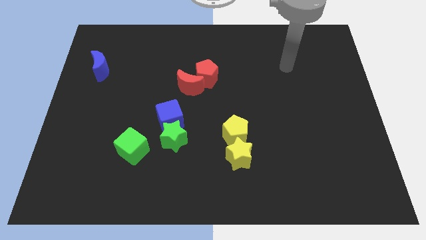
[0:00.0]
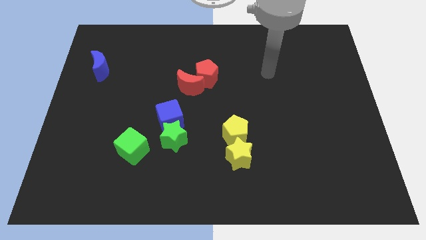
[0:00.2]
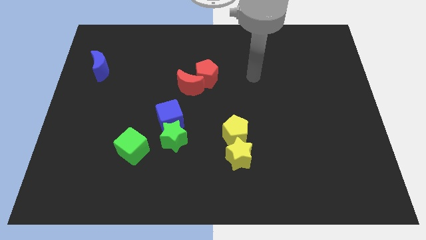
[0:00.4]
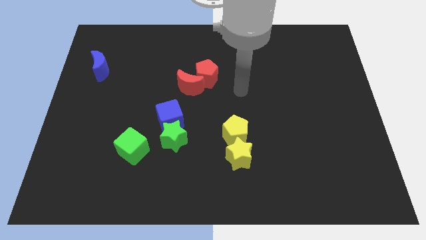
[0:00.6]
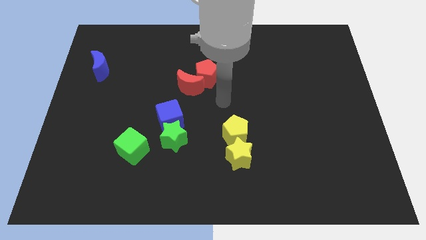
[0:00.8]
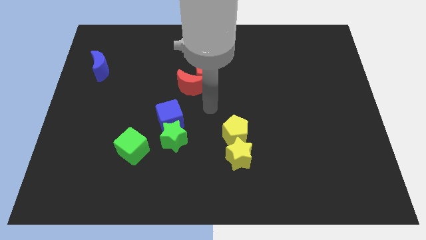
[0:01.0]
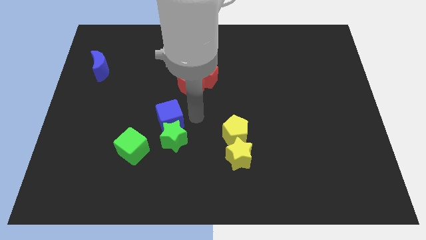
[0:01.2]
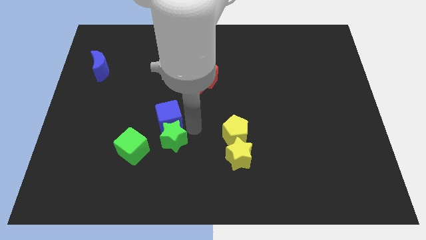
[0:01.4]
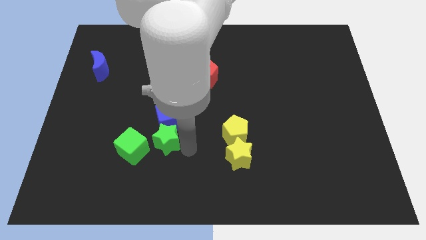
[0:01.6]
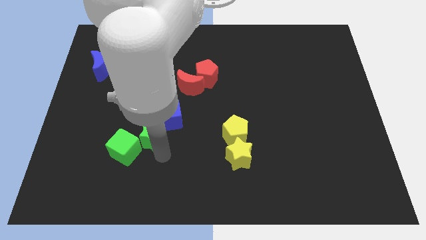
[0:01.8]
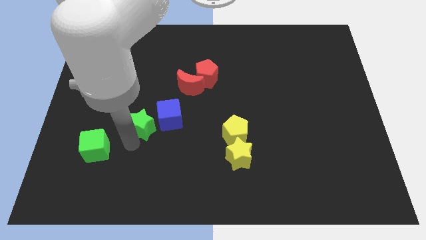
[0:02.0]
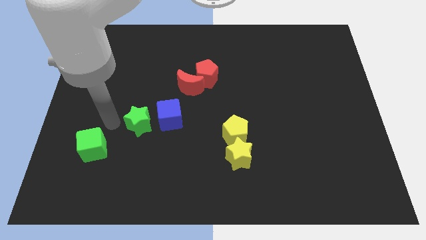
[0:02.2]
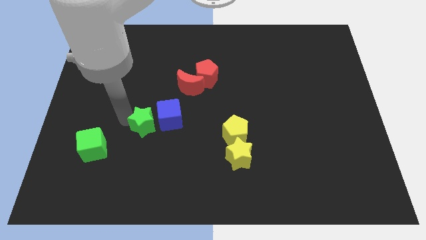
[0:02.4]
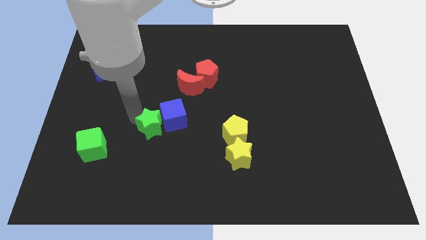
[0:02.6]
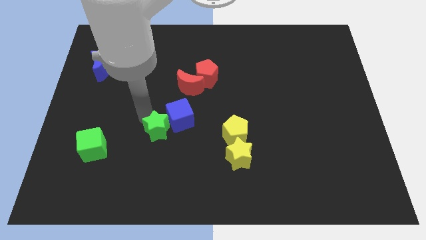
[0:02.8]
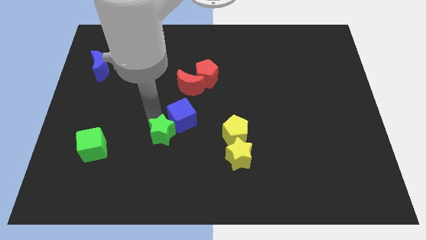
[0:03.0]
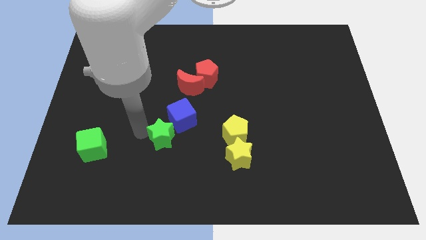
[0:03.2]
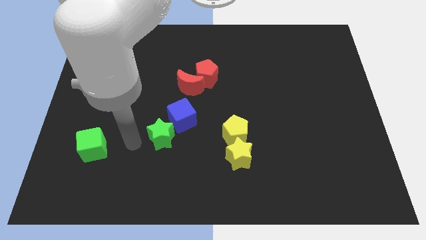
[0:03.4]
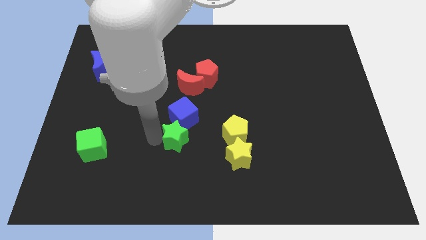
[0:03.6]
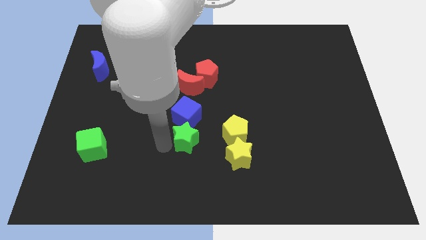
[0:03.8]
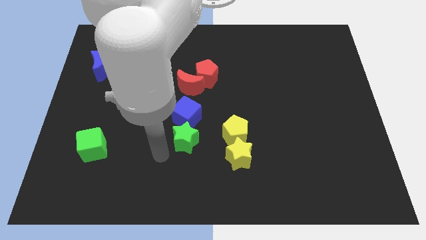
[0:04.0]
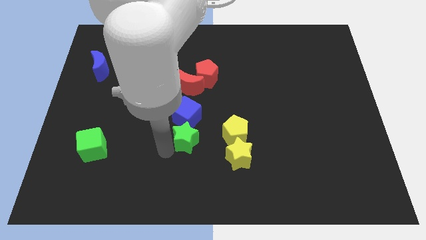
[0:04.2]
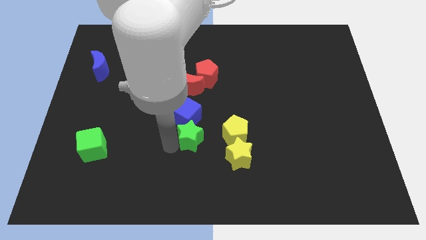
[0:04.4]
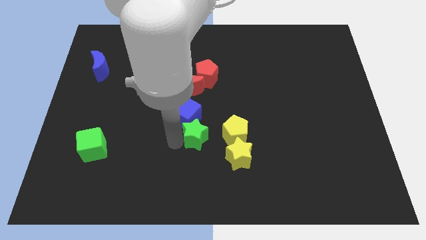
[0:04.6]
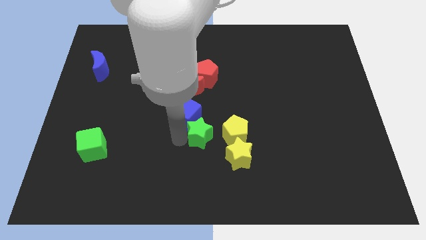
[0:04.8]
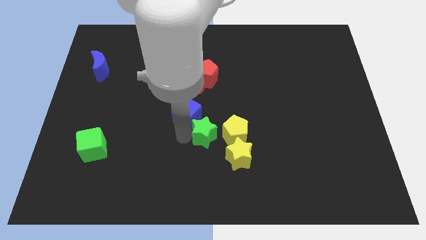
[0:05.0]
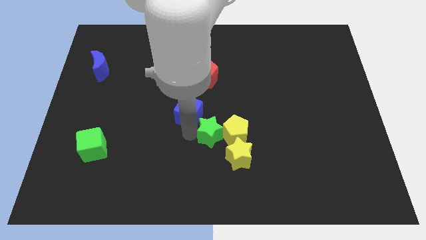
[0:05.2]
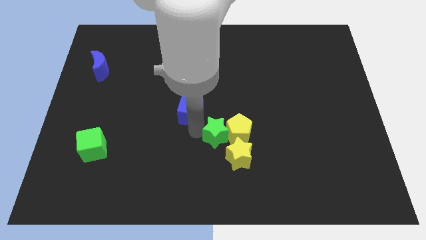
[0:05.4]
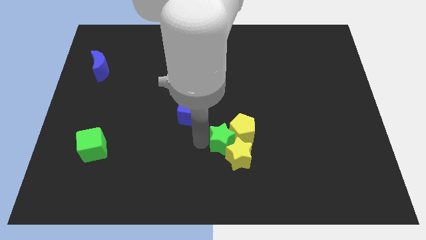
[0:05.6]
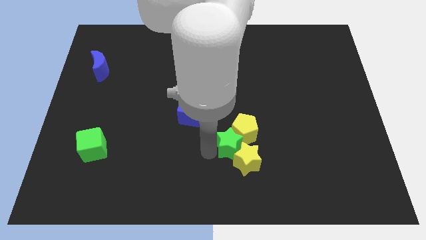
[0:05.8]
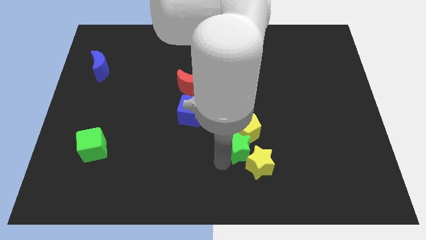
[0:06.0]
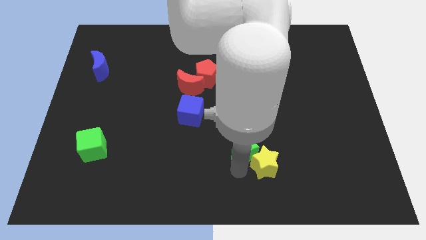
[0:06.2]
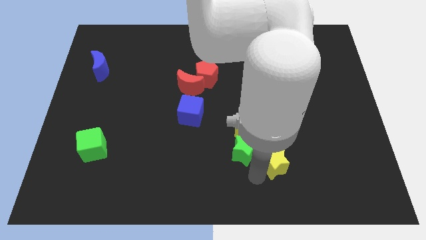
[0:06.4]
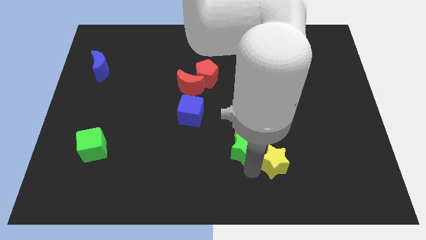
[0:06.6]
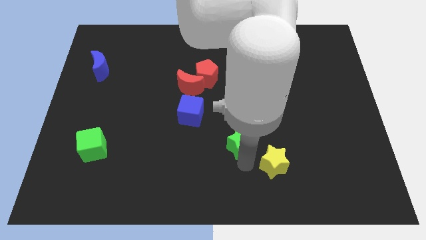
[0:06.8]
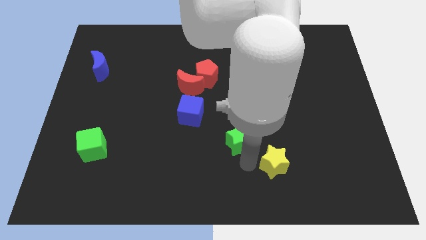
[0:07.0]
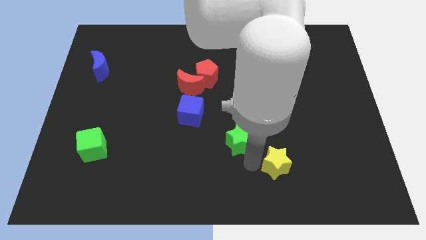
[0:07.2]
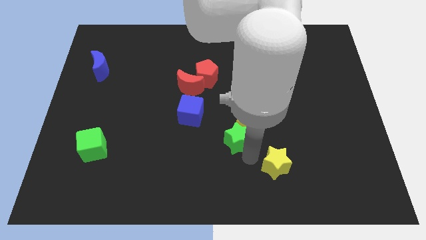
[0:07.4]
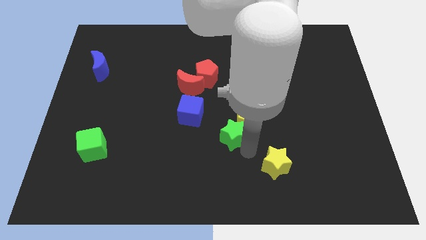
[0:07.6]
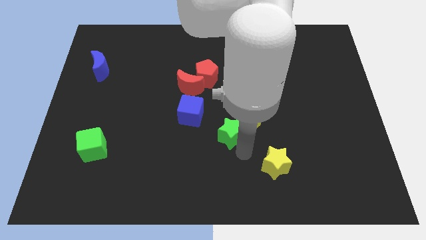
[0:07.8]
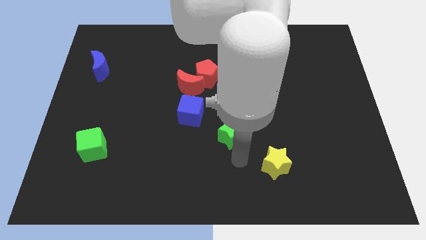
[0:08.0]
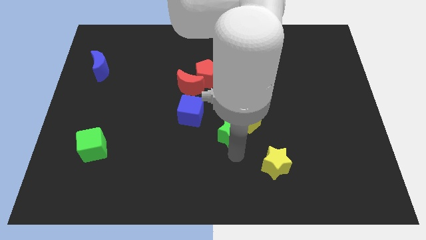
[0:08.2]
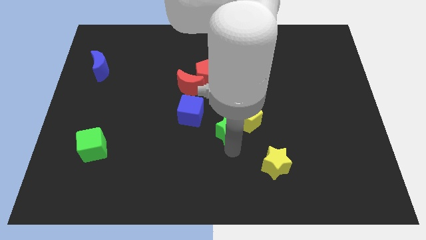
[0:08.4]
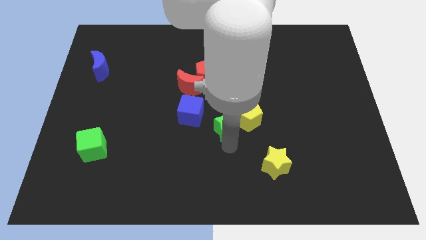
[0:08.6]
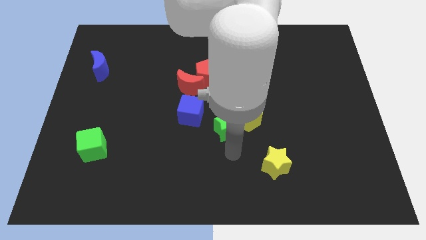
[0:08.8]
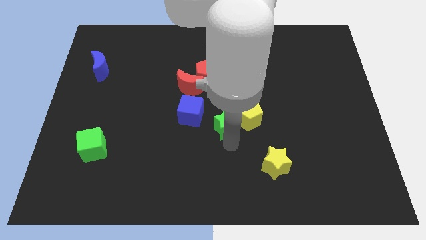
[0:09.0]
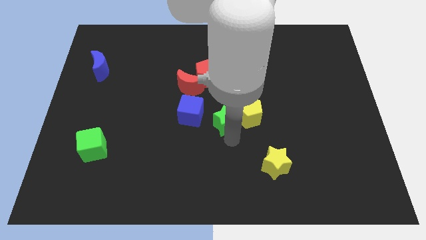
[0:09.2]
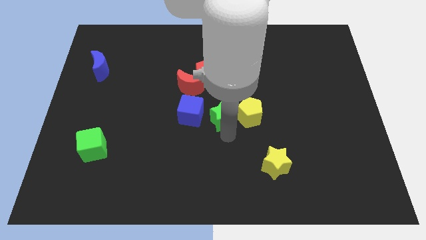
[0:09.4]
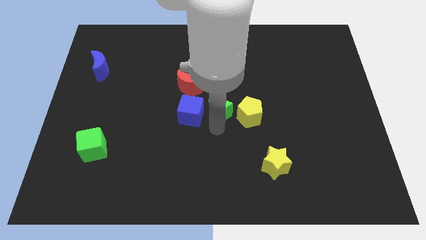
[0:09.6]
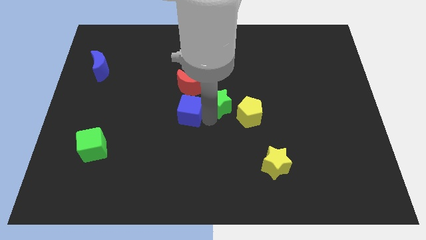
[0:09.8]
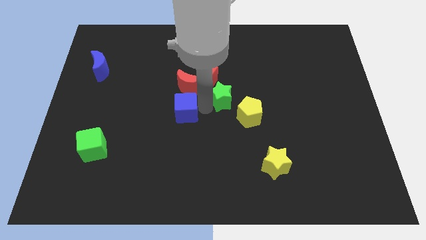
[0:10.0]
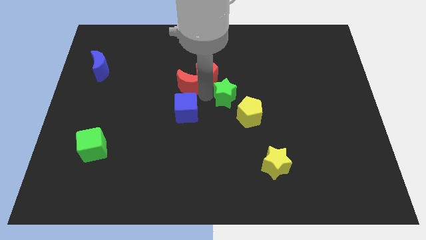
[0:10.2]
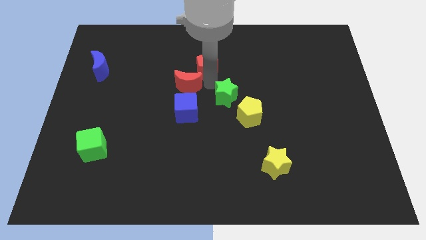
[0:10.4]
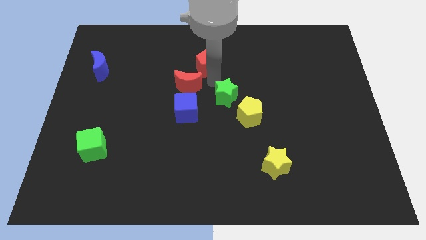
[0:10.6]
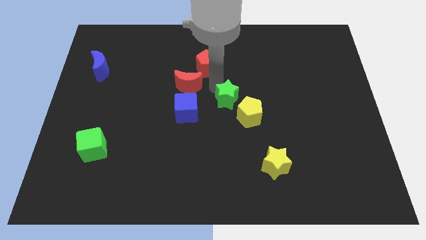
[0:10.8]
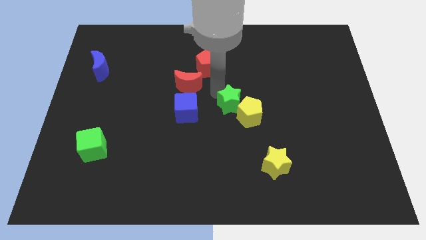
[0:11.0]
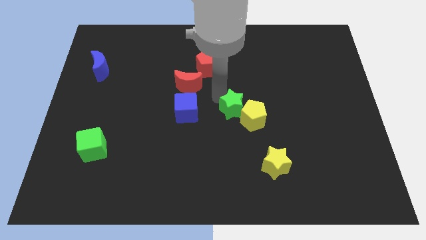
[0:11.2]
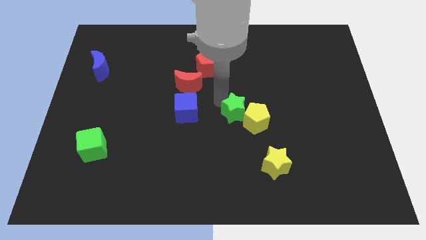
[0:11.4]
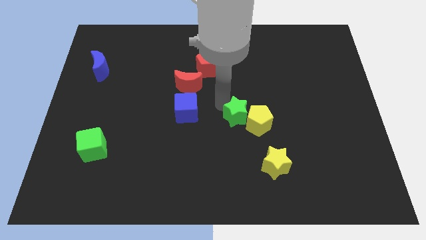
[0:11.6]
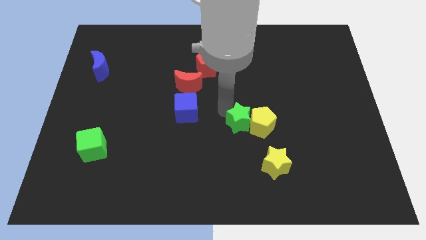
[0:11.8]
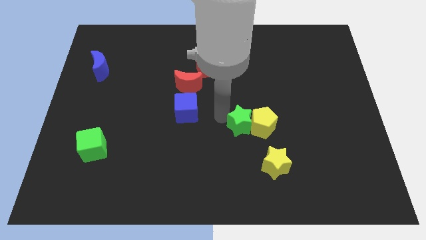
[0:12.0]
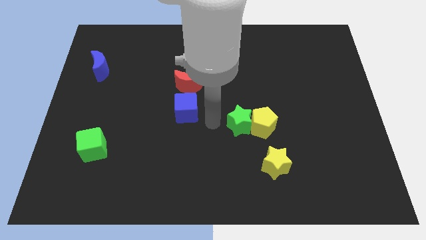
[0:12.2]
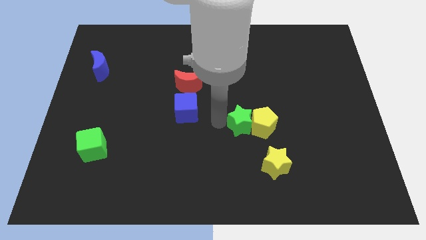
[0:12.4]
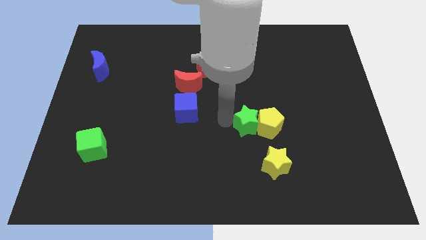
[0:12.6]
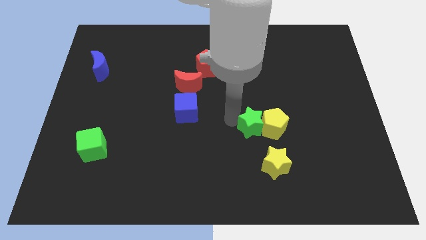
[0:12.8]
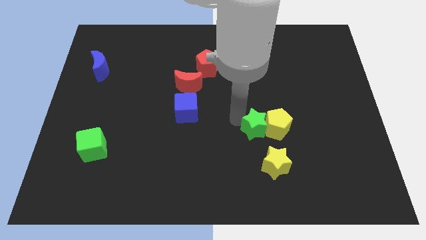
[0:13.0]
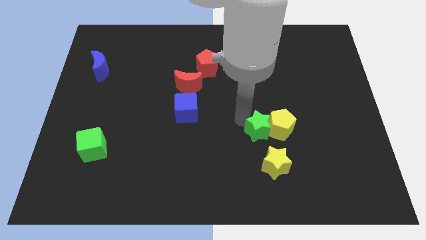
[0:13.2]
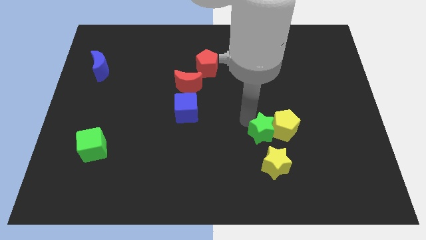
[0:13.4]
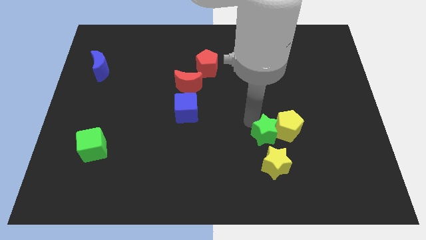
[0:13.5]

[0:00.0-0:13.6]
push the green star right

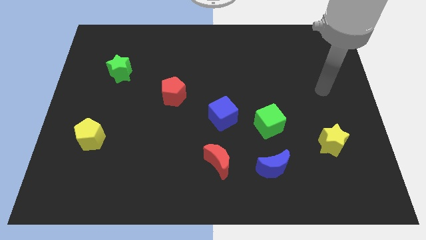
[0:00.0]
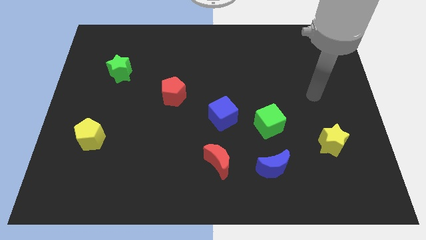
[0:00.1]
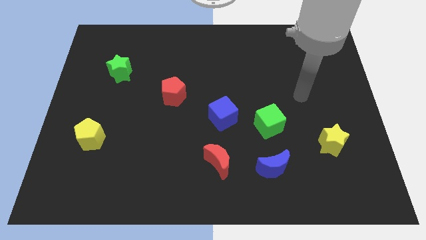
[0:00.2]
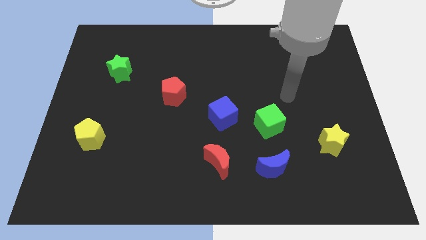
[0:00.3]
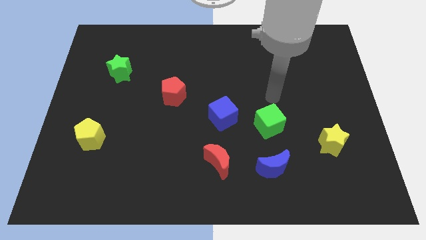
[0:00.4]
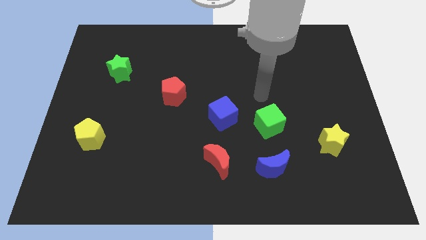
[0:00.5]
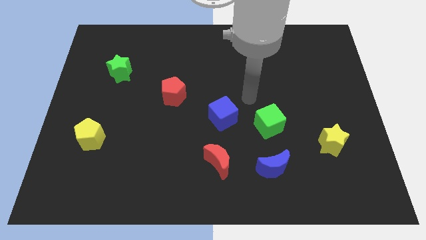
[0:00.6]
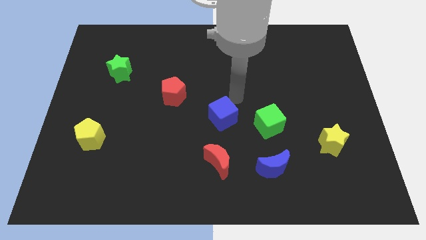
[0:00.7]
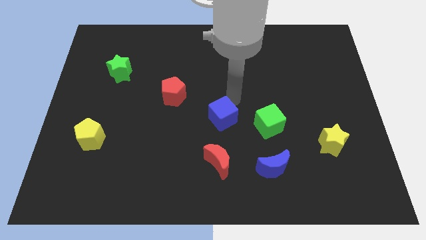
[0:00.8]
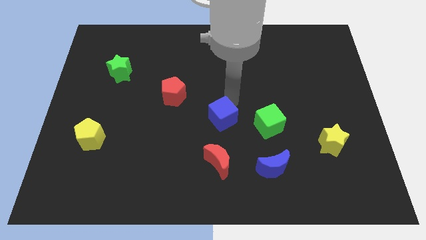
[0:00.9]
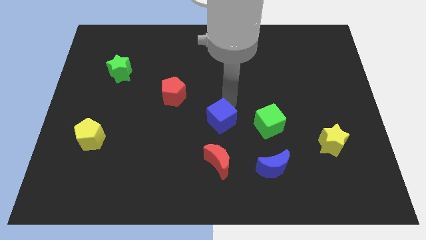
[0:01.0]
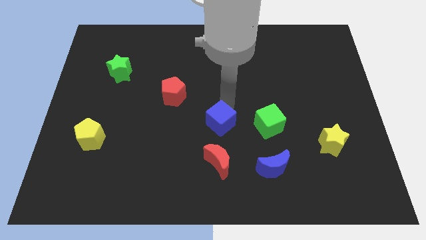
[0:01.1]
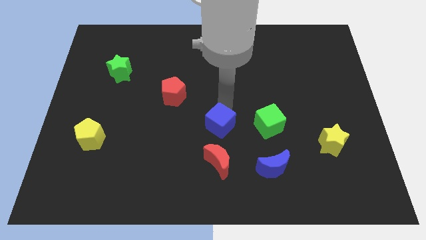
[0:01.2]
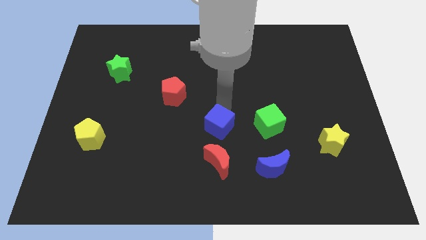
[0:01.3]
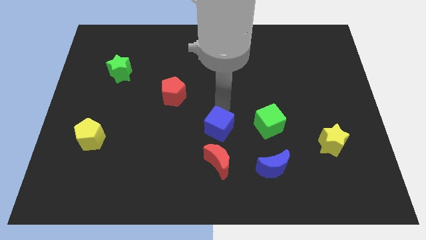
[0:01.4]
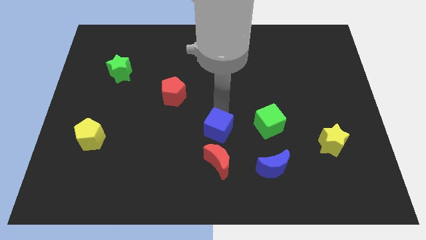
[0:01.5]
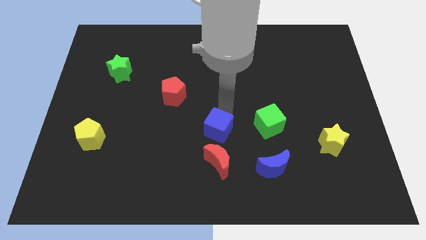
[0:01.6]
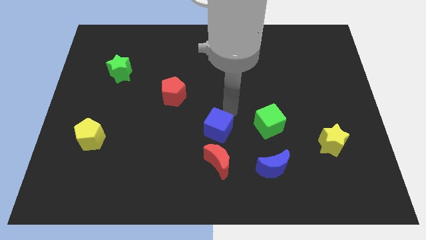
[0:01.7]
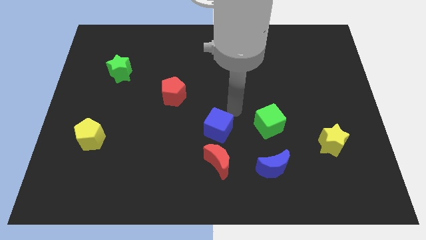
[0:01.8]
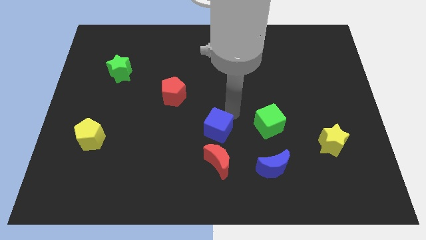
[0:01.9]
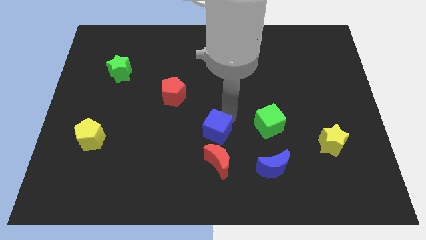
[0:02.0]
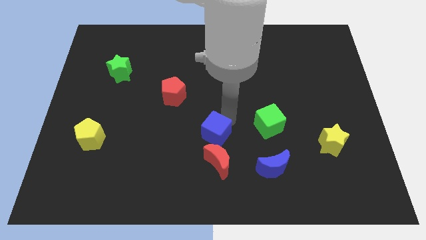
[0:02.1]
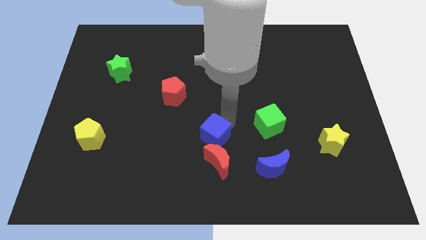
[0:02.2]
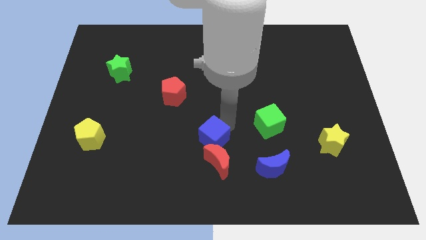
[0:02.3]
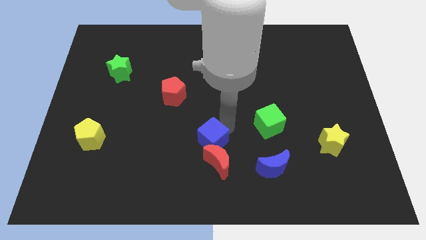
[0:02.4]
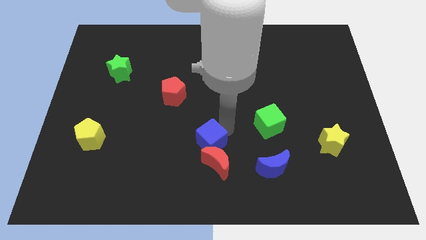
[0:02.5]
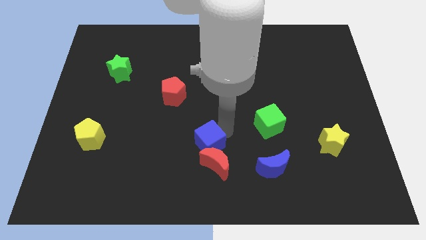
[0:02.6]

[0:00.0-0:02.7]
slightly slide the blue cube down and then left
